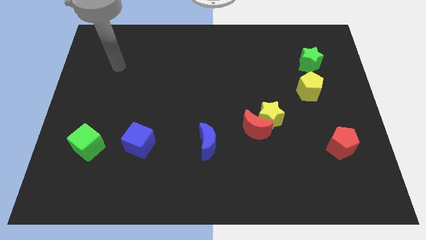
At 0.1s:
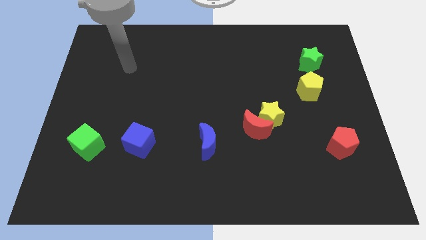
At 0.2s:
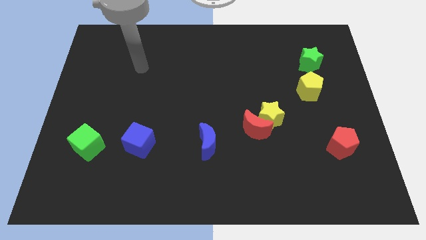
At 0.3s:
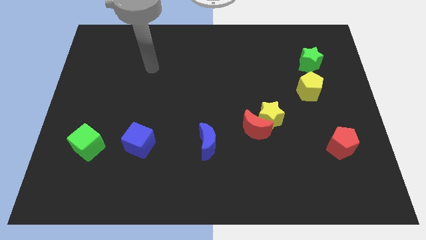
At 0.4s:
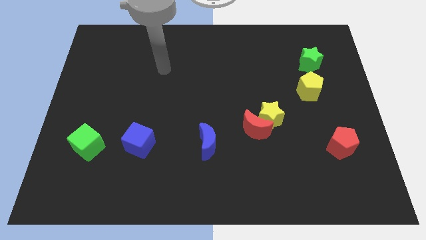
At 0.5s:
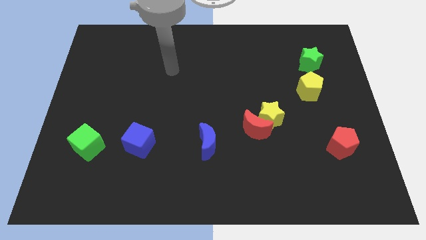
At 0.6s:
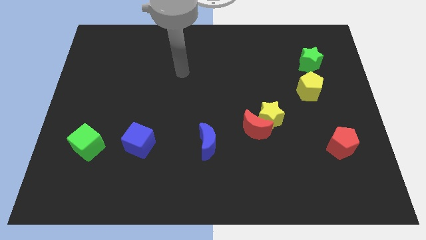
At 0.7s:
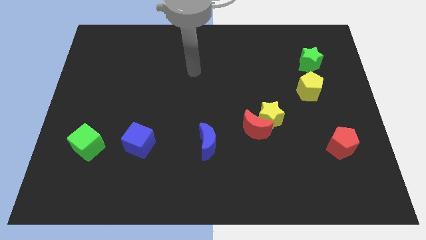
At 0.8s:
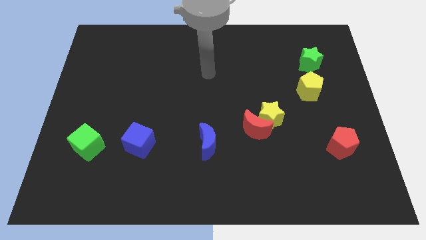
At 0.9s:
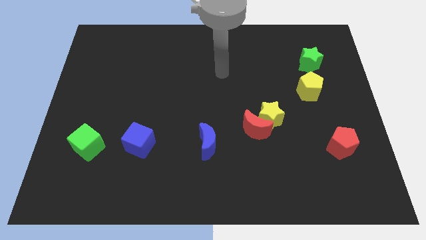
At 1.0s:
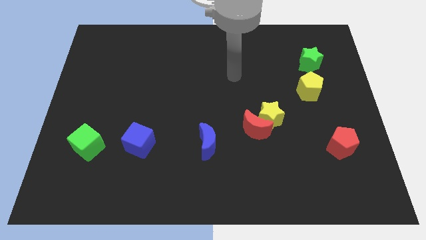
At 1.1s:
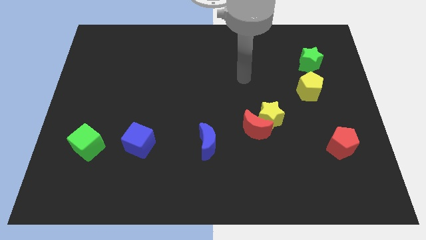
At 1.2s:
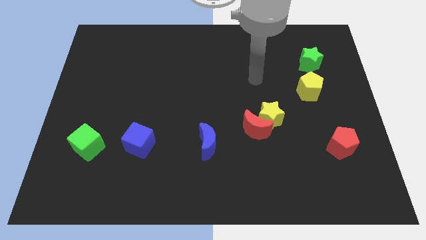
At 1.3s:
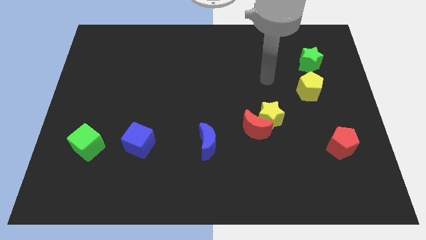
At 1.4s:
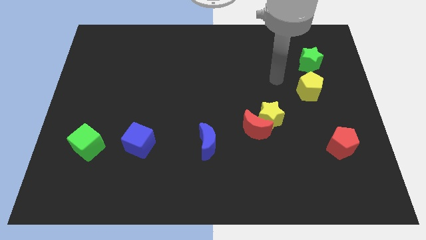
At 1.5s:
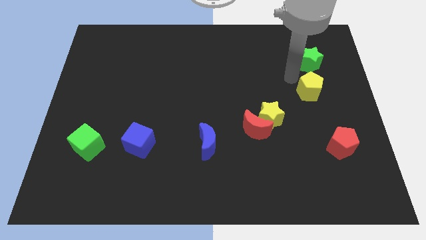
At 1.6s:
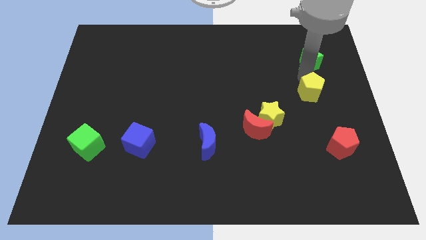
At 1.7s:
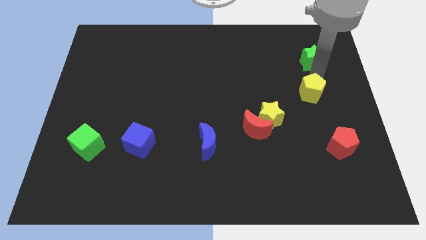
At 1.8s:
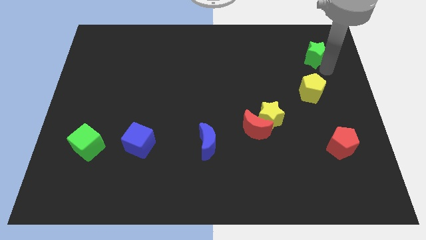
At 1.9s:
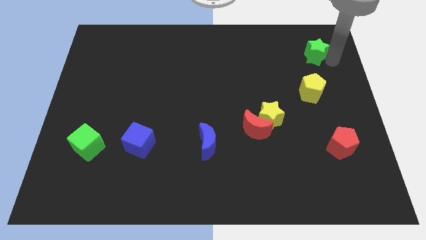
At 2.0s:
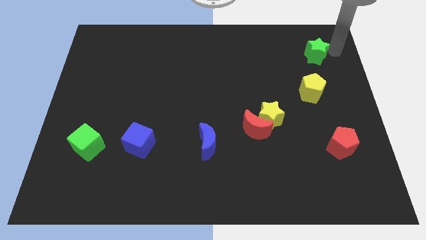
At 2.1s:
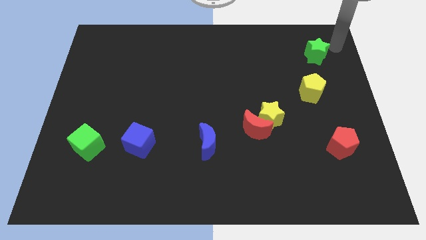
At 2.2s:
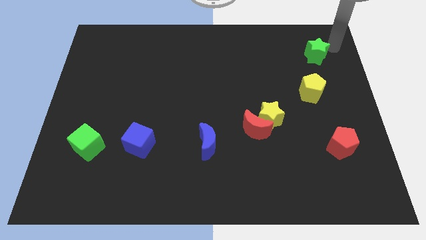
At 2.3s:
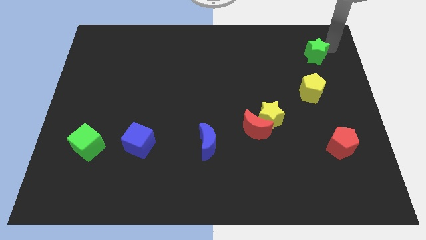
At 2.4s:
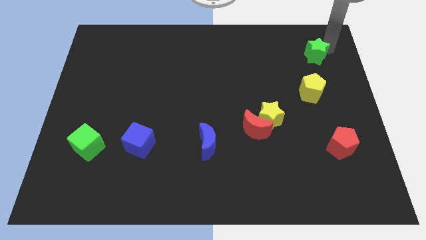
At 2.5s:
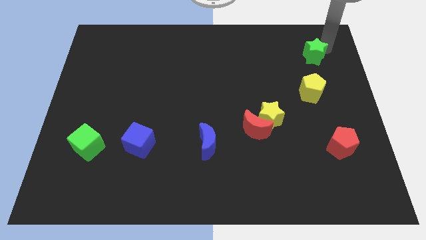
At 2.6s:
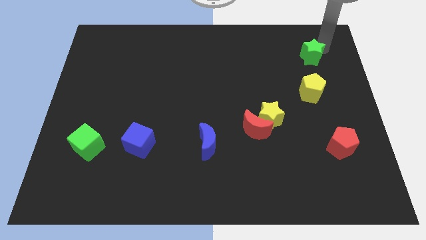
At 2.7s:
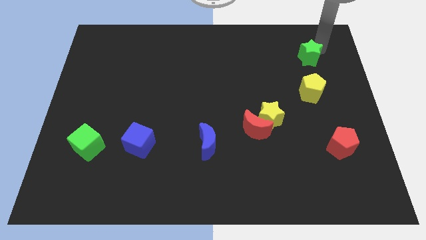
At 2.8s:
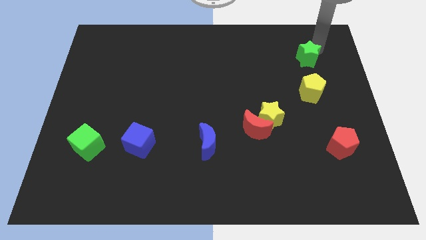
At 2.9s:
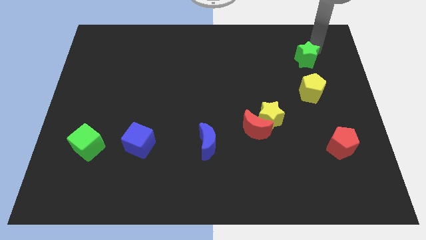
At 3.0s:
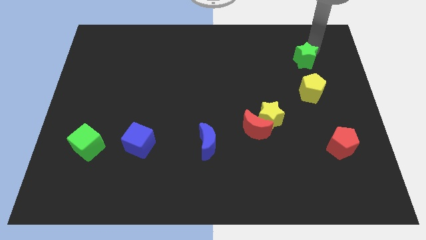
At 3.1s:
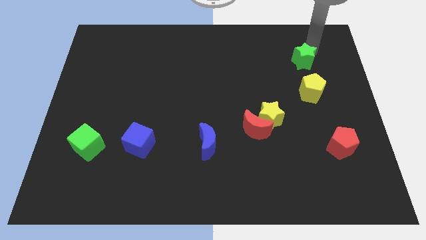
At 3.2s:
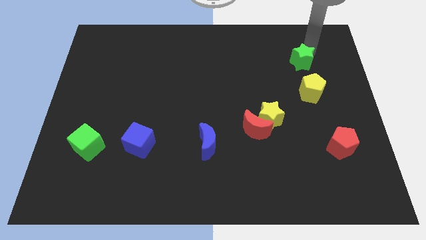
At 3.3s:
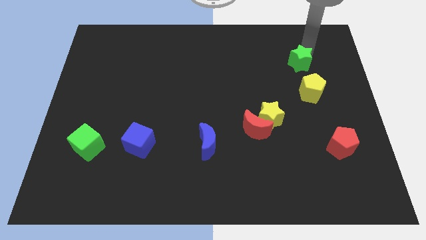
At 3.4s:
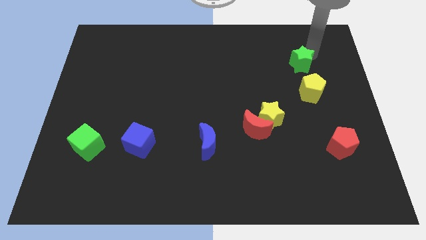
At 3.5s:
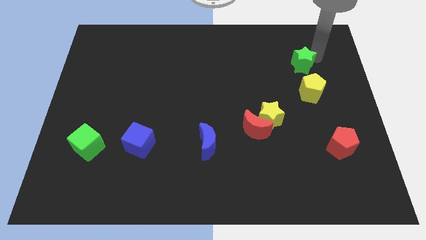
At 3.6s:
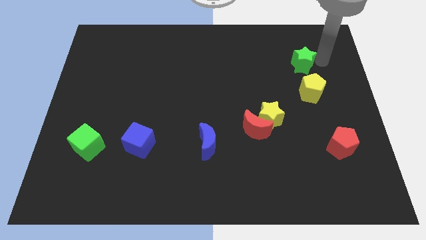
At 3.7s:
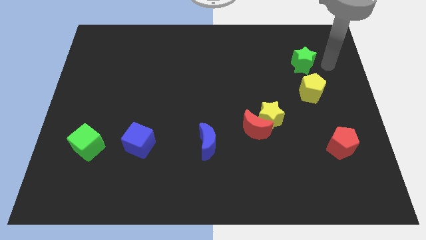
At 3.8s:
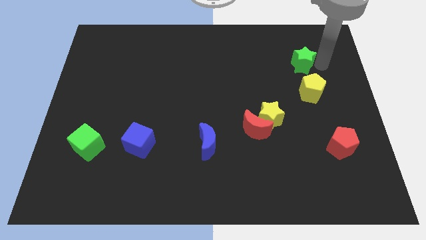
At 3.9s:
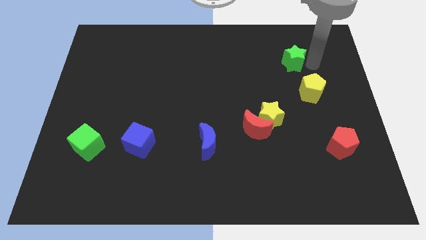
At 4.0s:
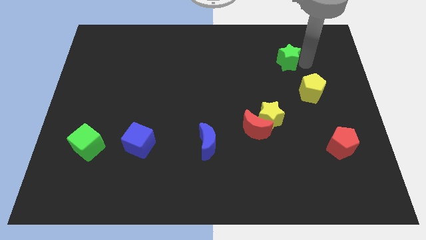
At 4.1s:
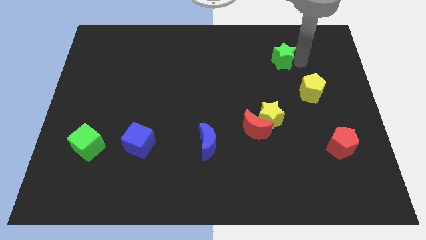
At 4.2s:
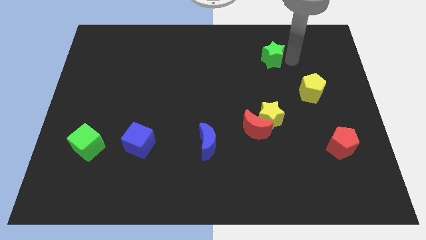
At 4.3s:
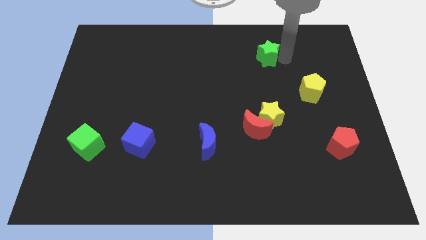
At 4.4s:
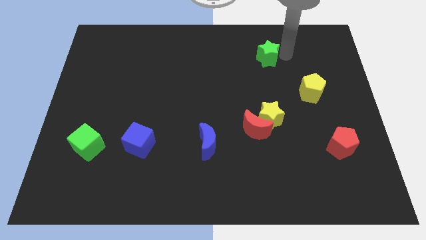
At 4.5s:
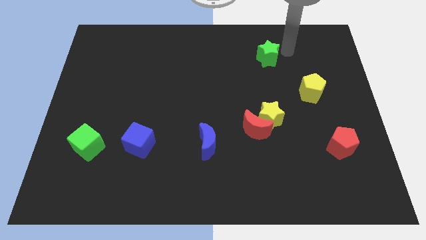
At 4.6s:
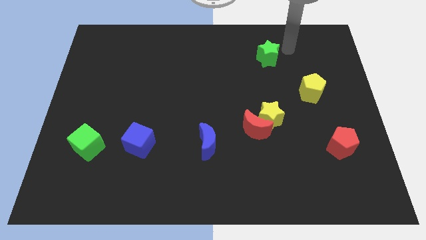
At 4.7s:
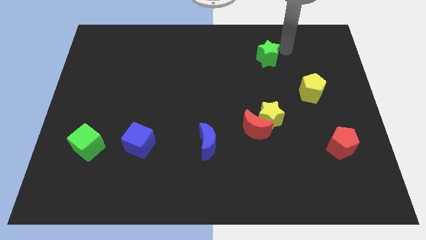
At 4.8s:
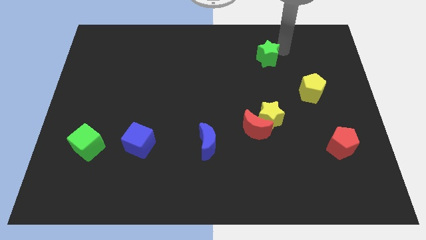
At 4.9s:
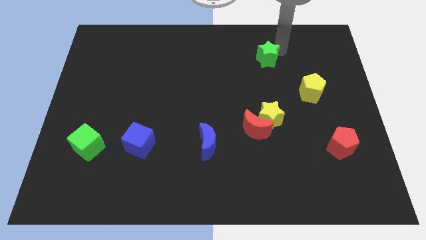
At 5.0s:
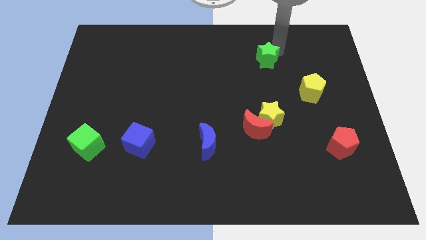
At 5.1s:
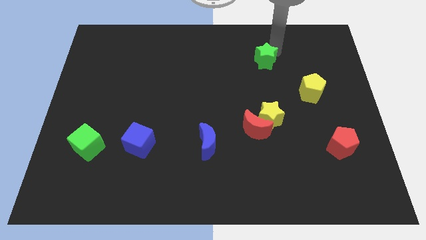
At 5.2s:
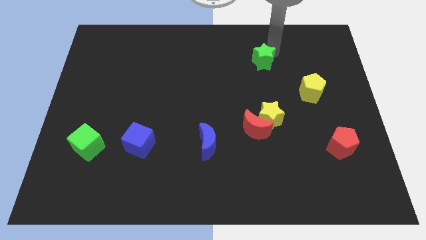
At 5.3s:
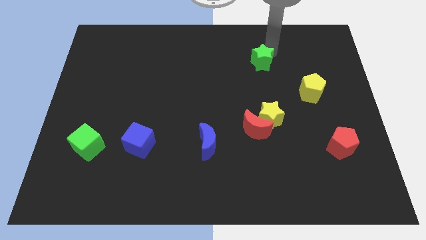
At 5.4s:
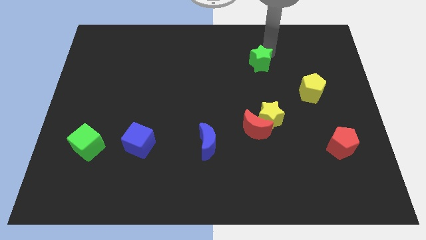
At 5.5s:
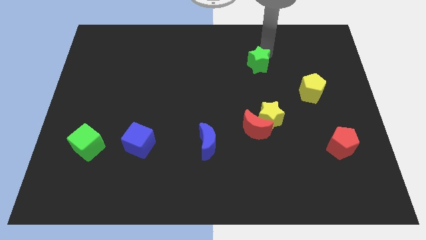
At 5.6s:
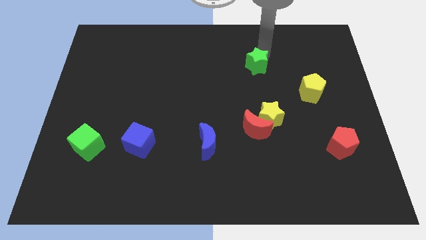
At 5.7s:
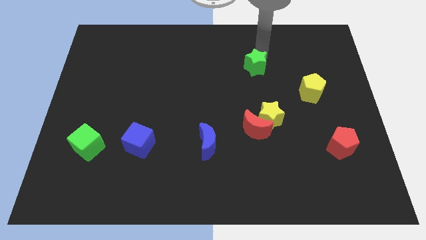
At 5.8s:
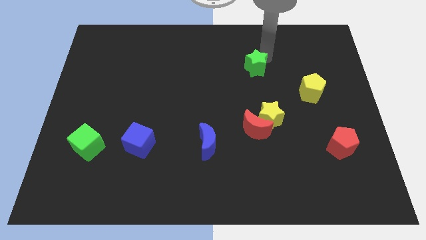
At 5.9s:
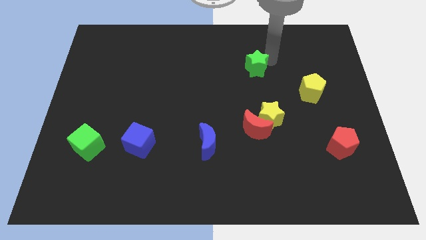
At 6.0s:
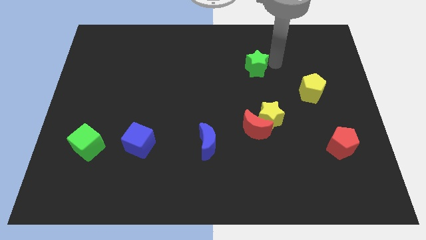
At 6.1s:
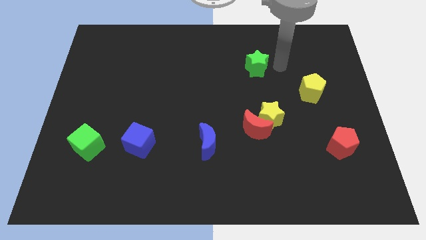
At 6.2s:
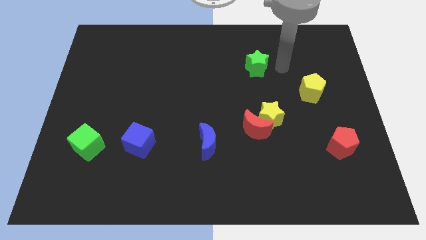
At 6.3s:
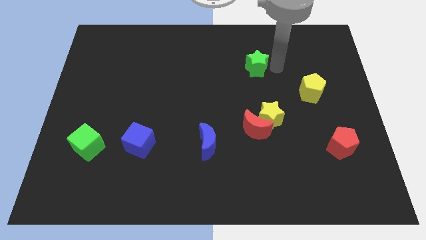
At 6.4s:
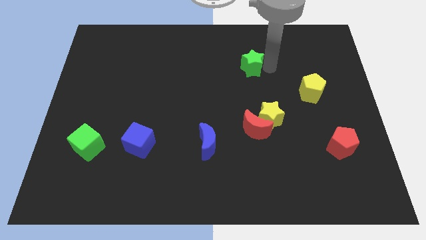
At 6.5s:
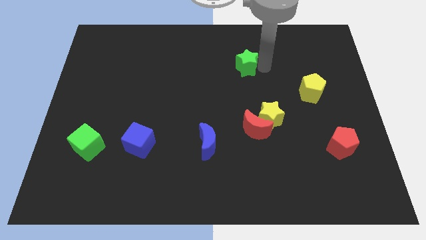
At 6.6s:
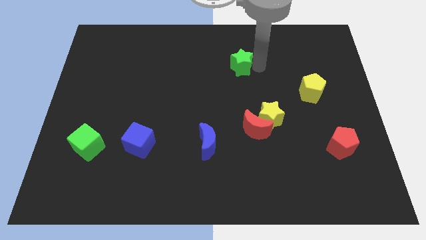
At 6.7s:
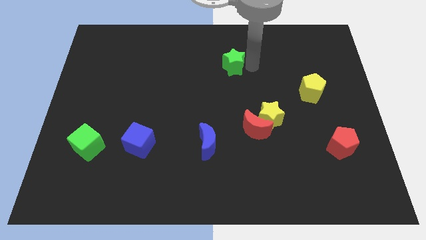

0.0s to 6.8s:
push the green star to the left

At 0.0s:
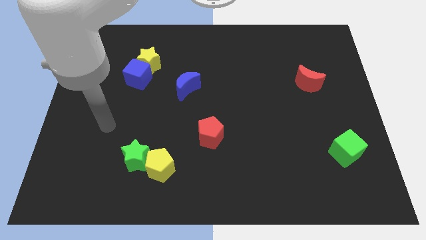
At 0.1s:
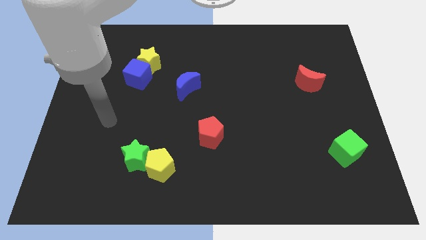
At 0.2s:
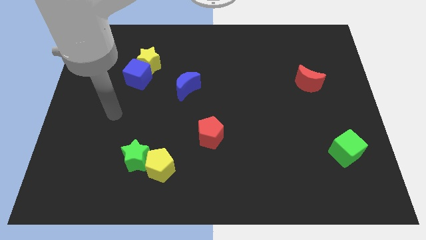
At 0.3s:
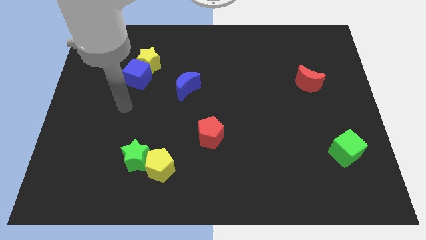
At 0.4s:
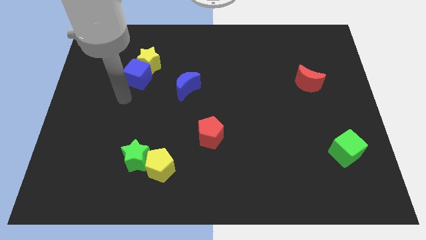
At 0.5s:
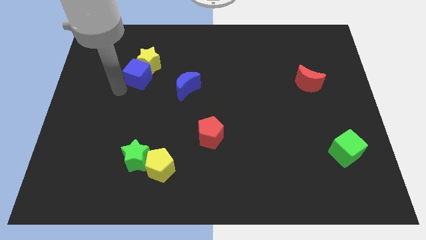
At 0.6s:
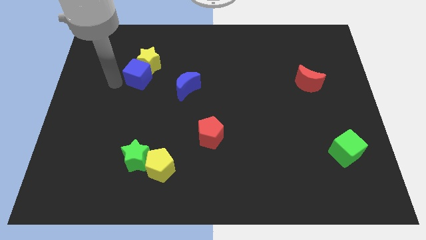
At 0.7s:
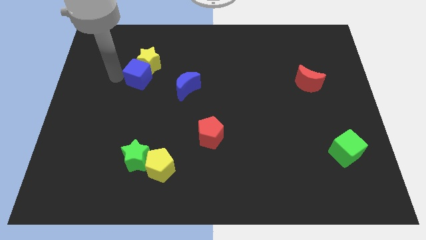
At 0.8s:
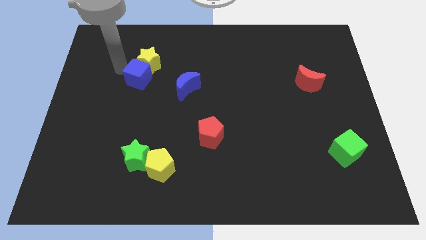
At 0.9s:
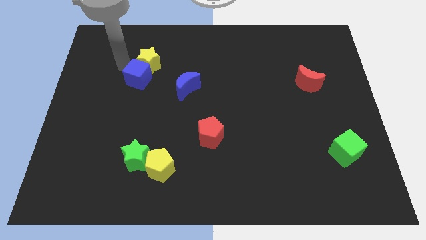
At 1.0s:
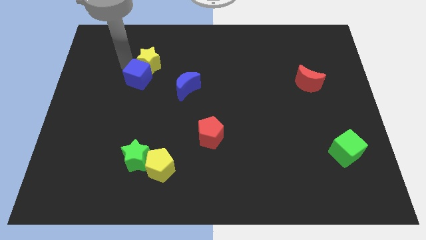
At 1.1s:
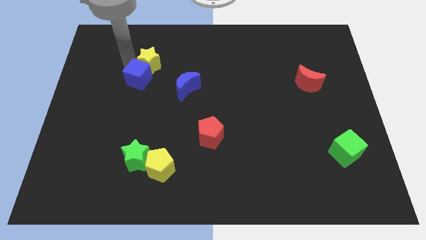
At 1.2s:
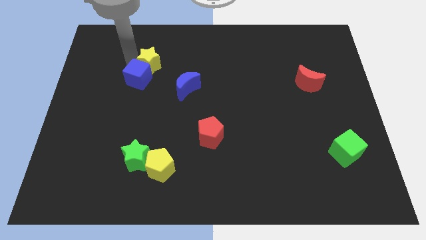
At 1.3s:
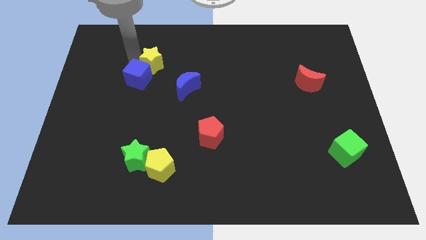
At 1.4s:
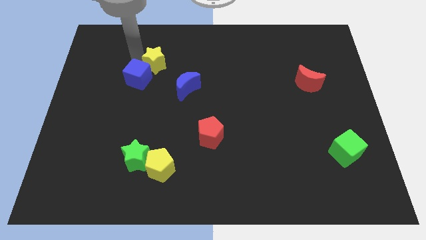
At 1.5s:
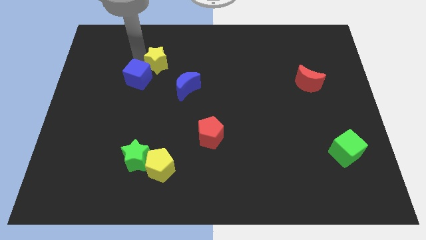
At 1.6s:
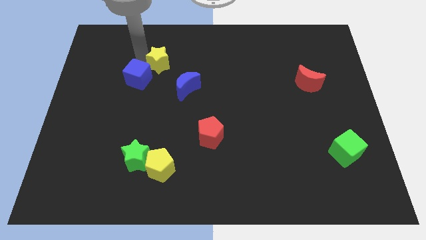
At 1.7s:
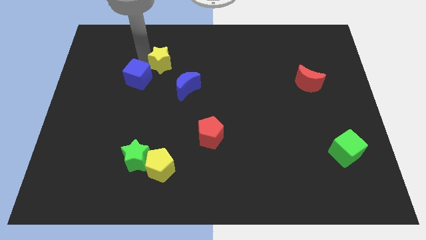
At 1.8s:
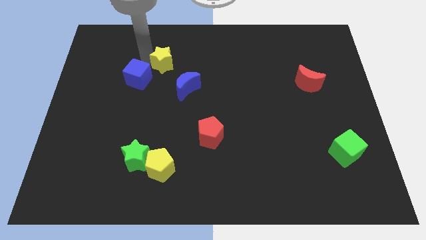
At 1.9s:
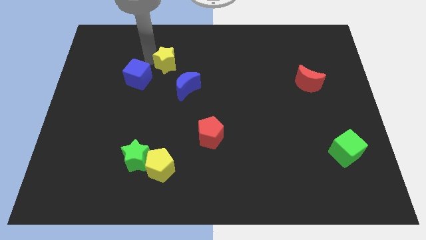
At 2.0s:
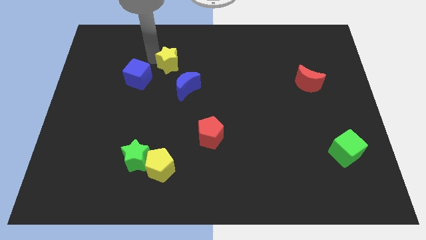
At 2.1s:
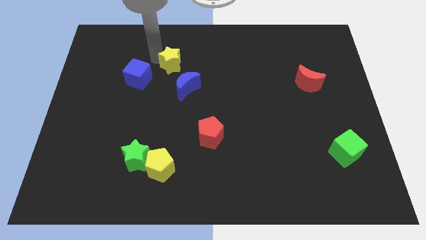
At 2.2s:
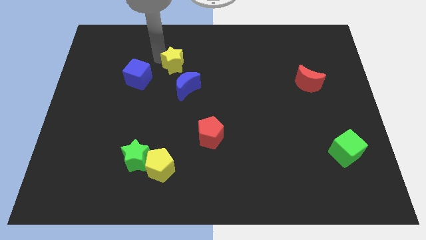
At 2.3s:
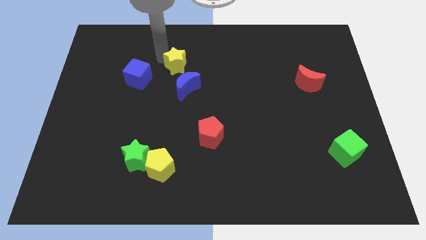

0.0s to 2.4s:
move the yellow star right a little
